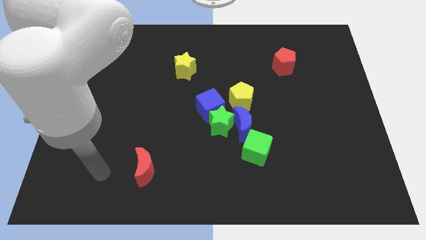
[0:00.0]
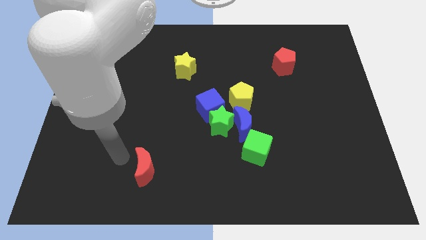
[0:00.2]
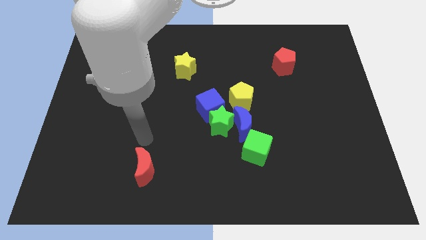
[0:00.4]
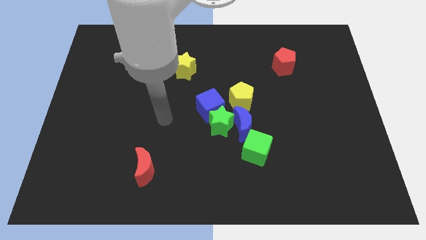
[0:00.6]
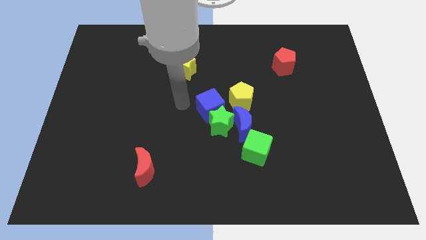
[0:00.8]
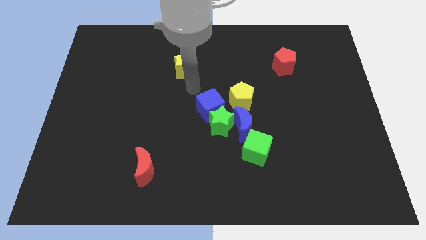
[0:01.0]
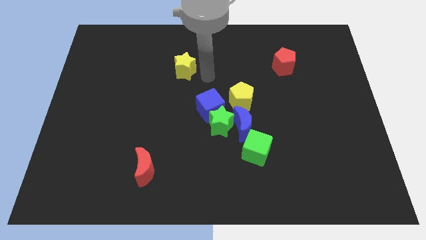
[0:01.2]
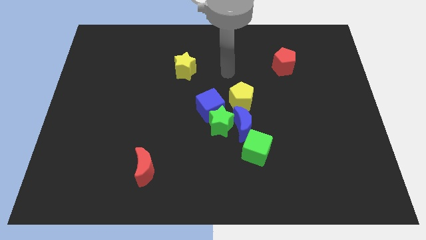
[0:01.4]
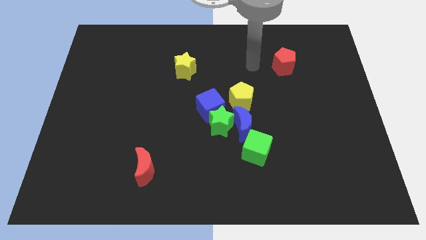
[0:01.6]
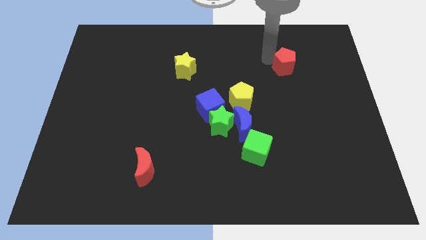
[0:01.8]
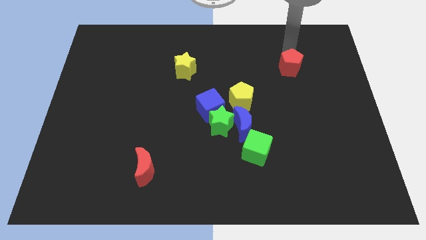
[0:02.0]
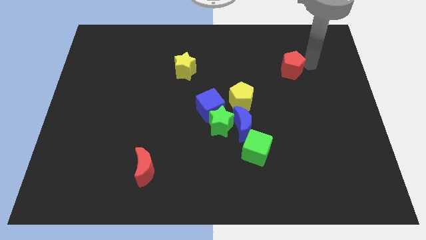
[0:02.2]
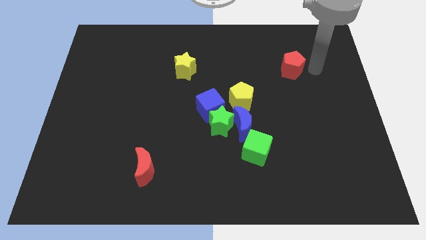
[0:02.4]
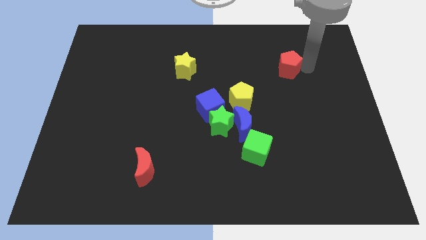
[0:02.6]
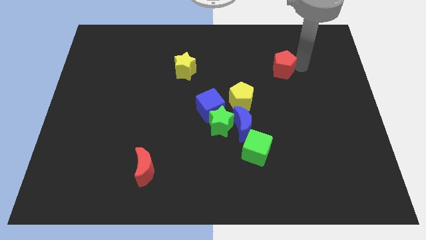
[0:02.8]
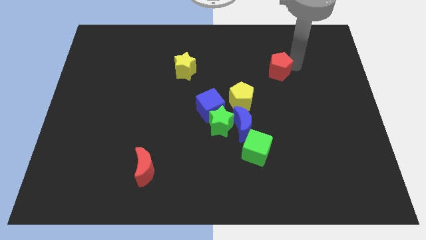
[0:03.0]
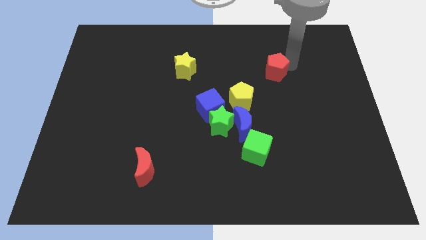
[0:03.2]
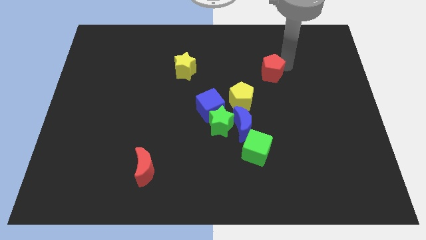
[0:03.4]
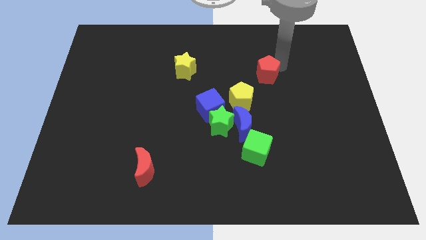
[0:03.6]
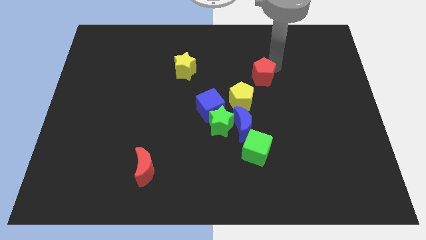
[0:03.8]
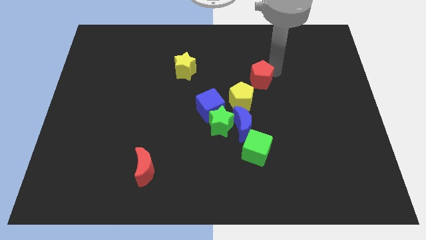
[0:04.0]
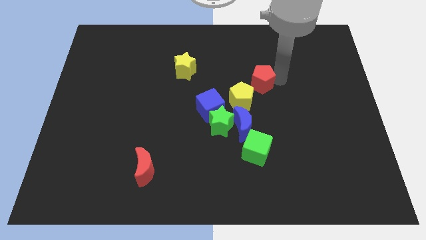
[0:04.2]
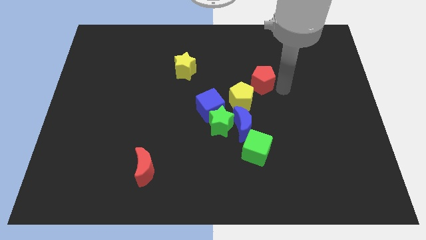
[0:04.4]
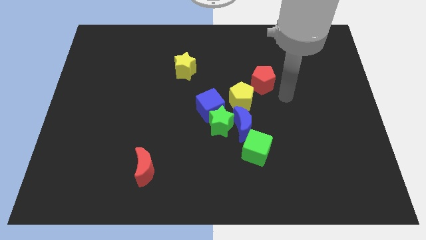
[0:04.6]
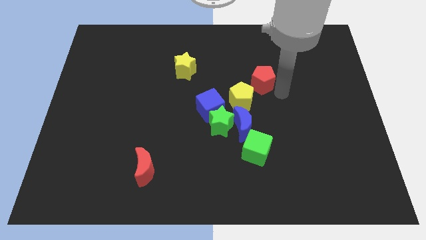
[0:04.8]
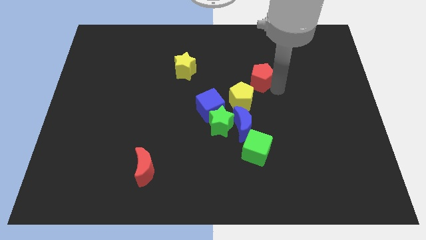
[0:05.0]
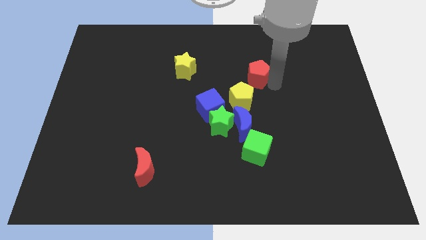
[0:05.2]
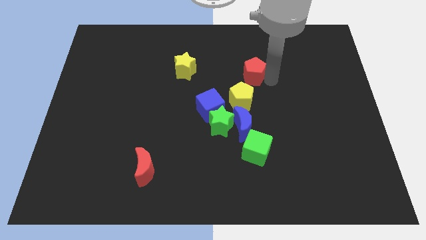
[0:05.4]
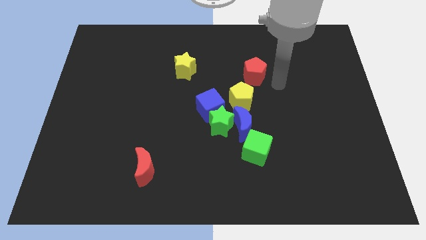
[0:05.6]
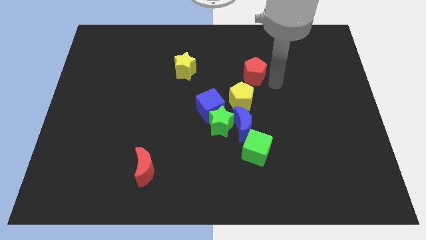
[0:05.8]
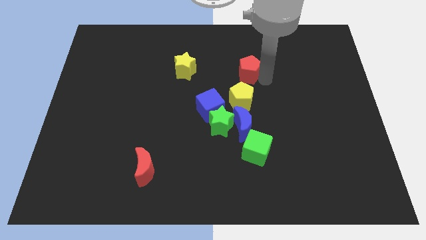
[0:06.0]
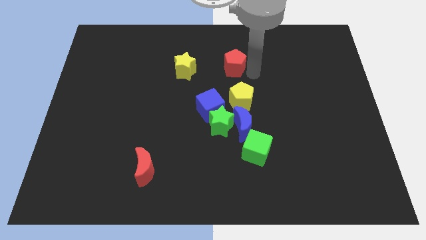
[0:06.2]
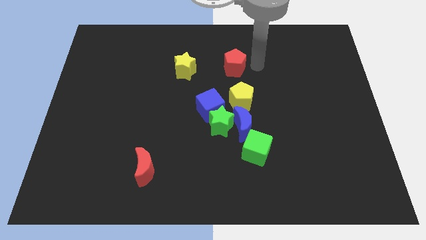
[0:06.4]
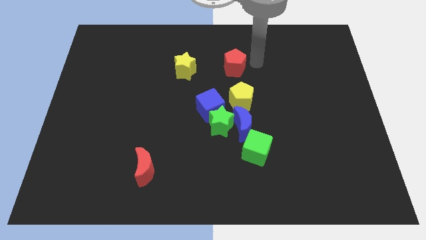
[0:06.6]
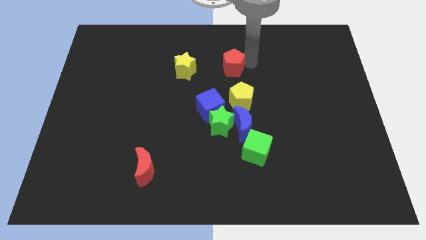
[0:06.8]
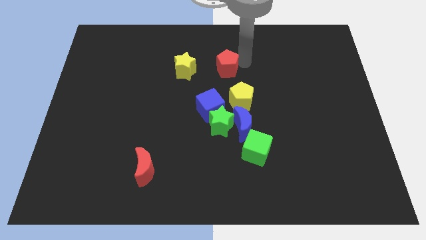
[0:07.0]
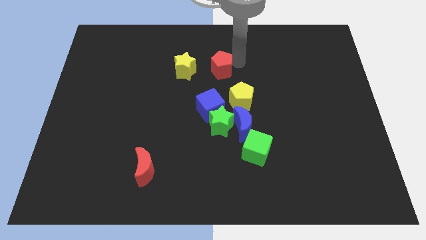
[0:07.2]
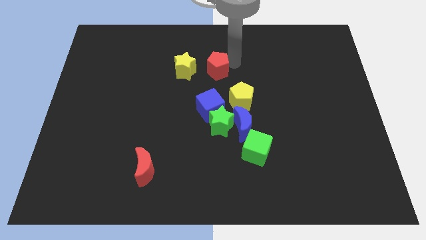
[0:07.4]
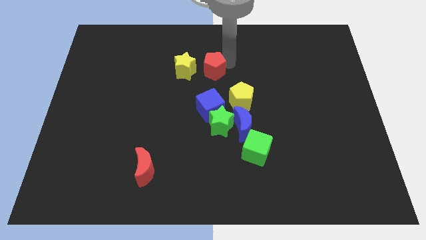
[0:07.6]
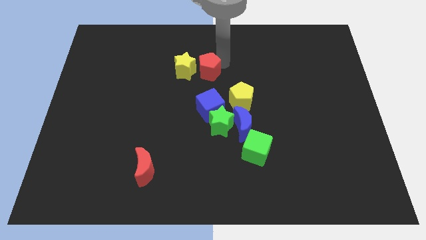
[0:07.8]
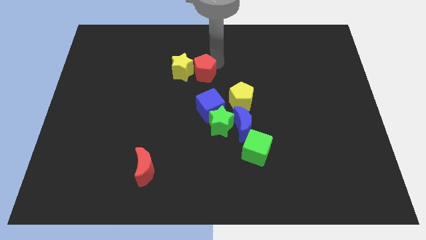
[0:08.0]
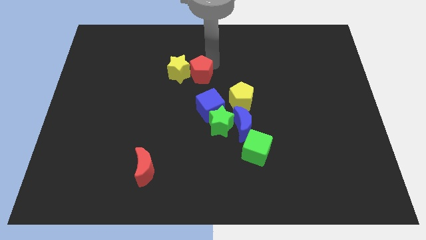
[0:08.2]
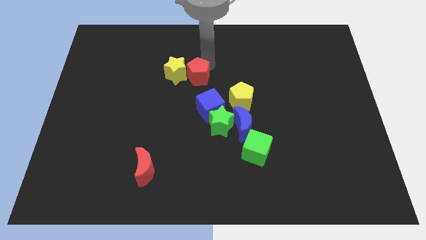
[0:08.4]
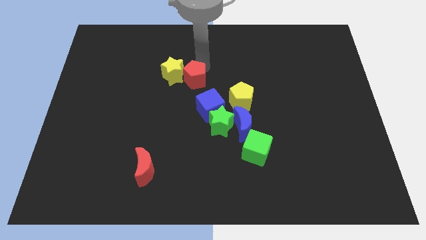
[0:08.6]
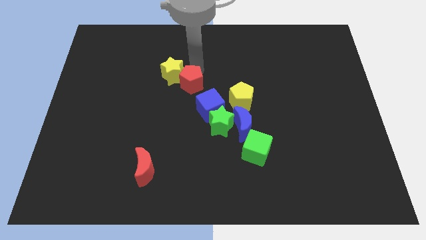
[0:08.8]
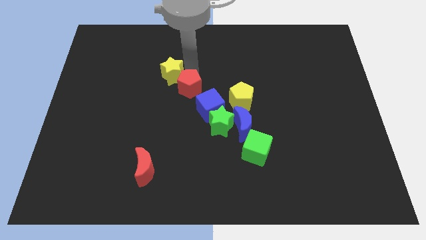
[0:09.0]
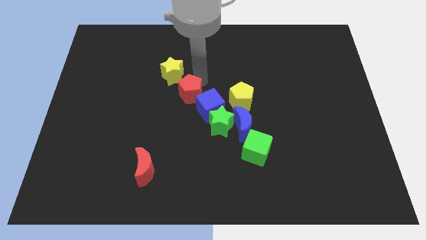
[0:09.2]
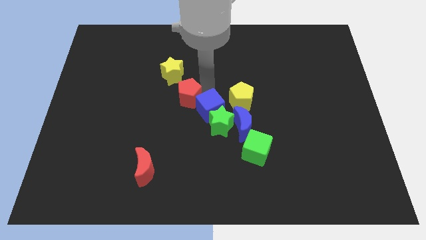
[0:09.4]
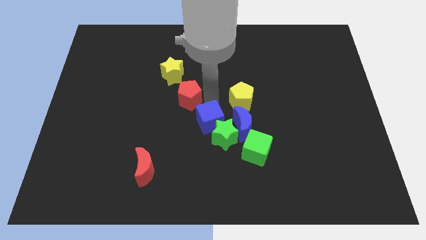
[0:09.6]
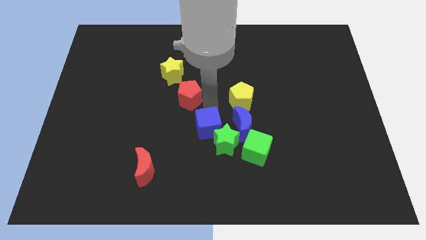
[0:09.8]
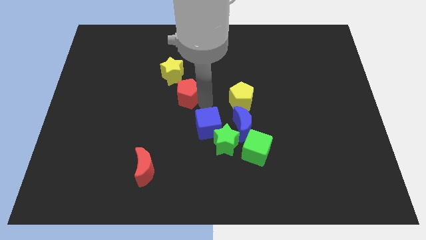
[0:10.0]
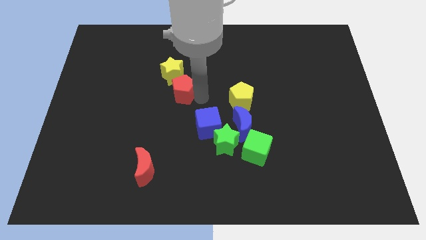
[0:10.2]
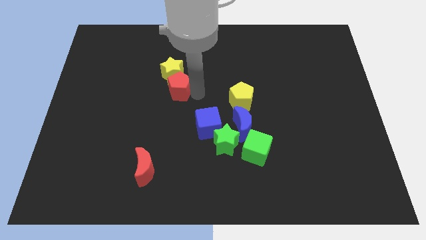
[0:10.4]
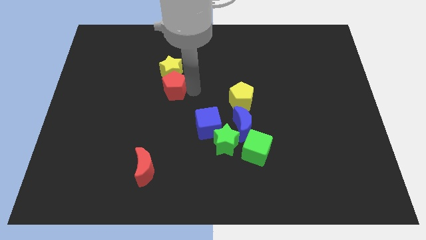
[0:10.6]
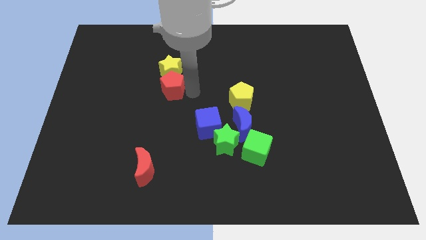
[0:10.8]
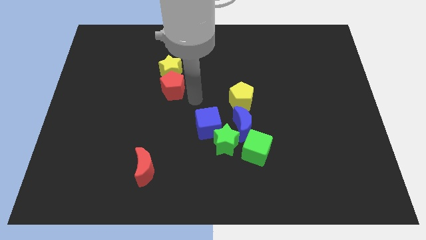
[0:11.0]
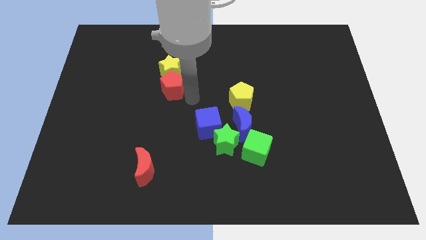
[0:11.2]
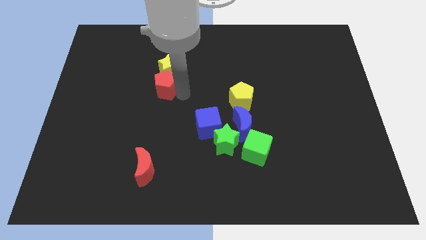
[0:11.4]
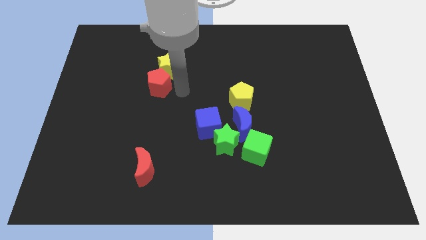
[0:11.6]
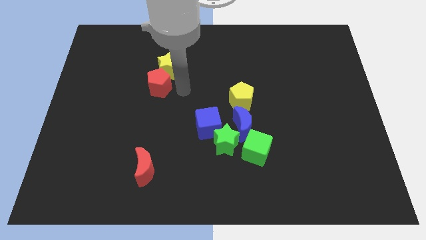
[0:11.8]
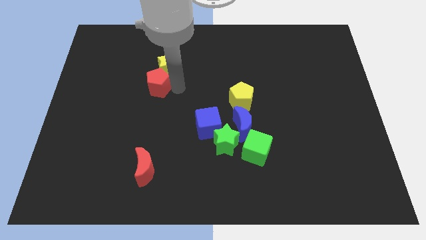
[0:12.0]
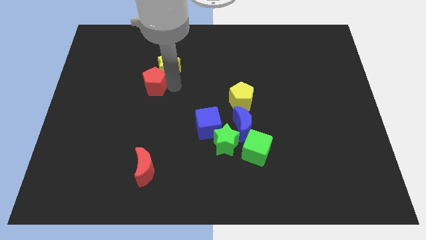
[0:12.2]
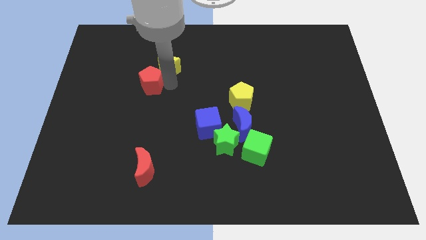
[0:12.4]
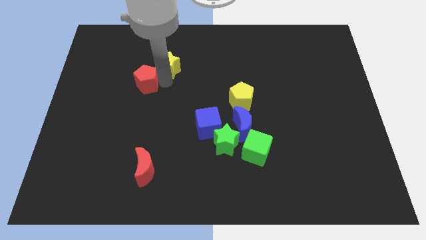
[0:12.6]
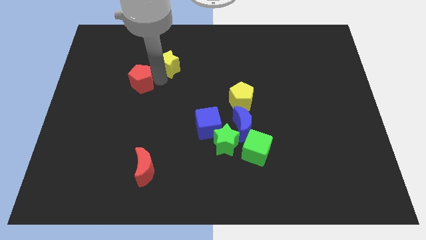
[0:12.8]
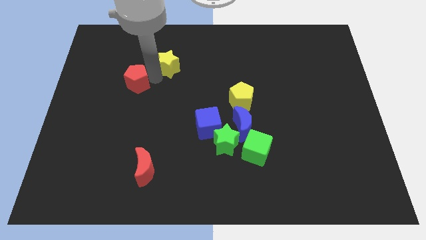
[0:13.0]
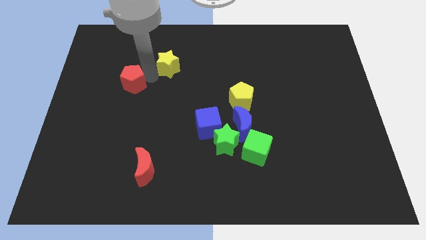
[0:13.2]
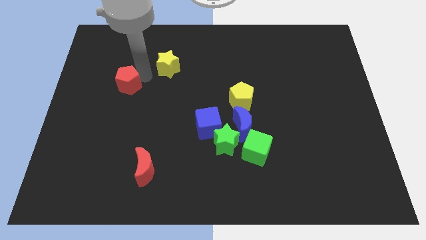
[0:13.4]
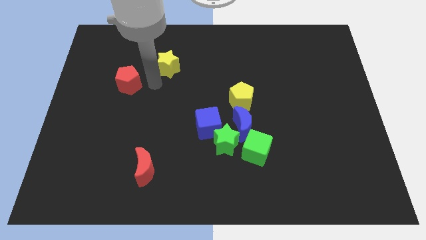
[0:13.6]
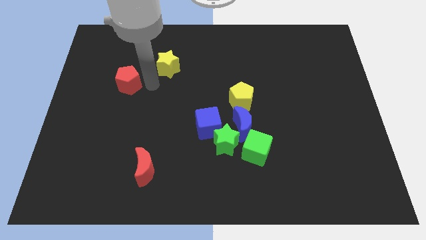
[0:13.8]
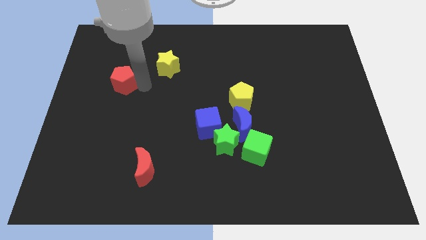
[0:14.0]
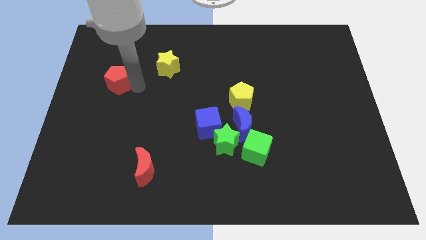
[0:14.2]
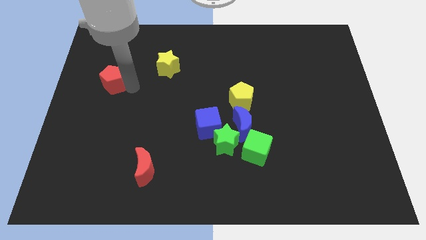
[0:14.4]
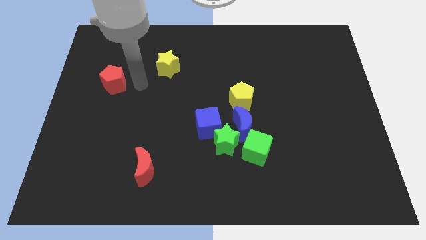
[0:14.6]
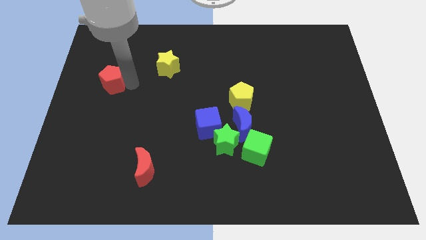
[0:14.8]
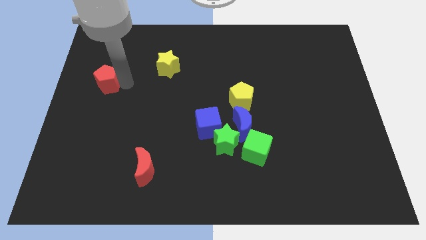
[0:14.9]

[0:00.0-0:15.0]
push the red pentagon to the left side of the board
